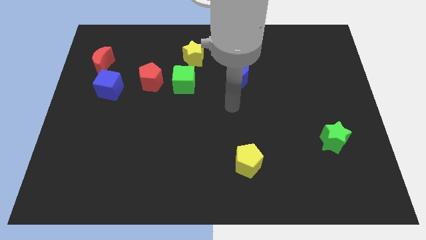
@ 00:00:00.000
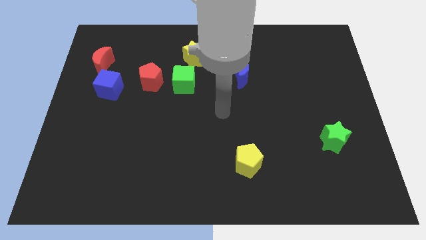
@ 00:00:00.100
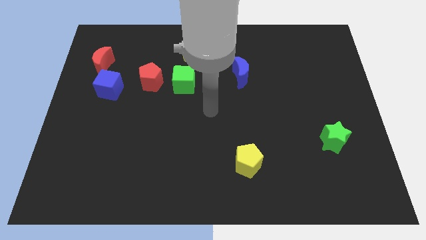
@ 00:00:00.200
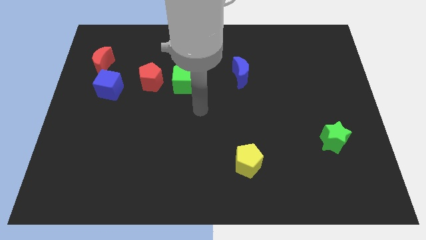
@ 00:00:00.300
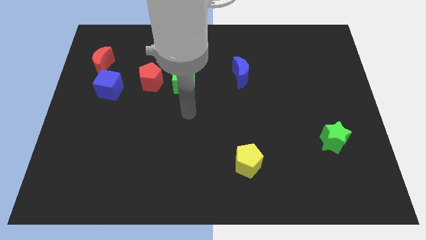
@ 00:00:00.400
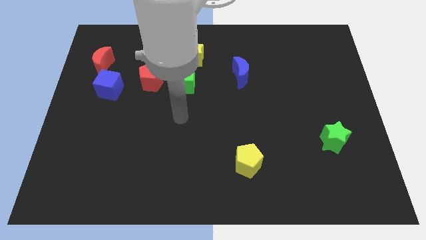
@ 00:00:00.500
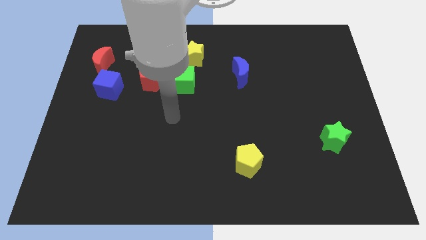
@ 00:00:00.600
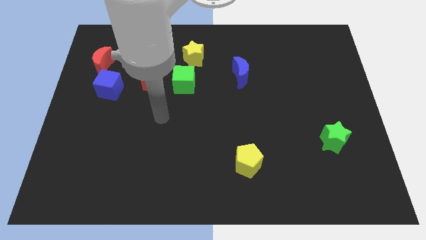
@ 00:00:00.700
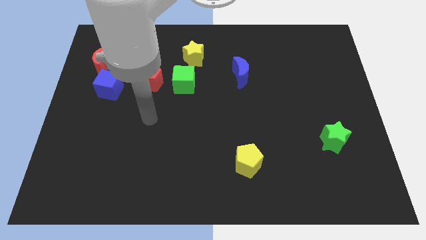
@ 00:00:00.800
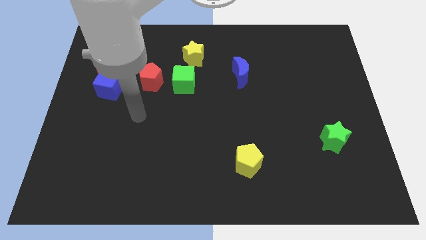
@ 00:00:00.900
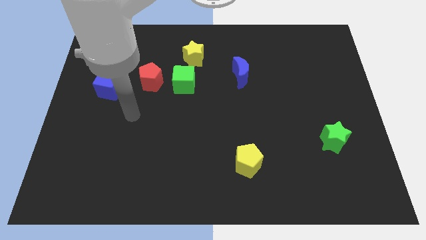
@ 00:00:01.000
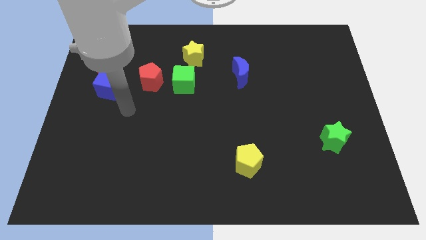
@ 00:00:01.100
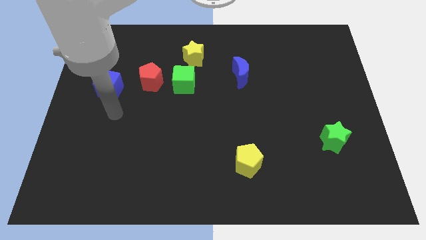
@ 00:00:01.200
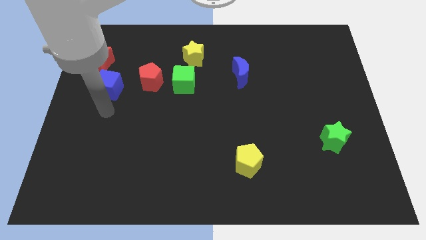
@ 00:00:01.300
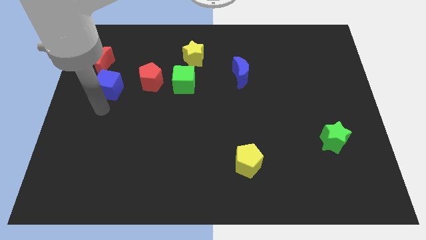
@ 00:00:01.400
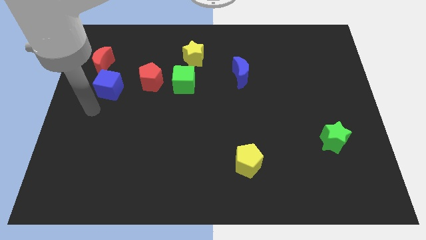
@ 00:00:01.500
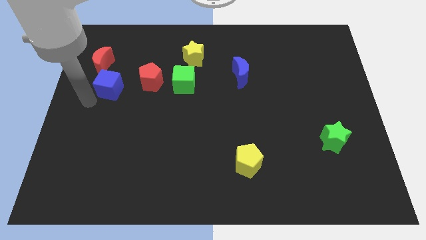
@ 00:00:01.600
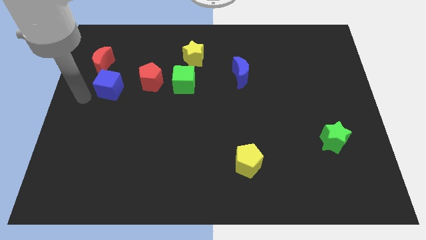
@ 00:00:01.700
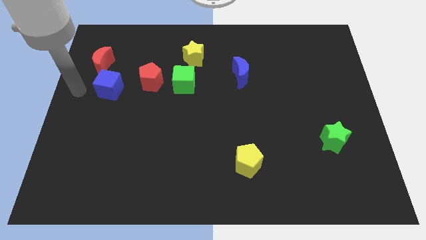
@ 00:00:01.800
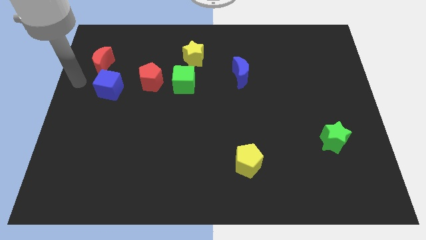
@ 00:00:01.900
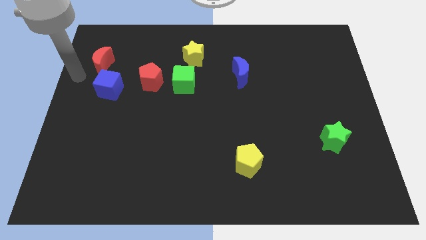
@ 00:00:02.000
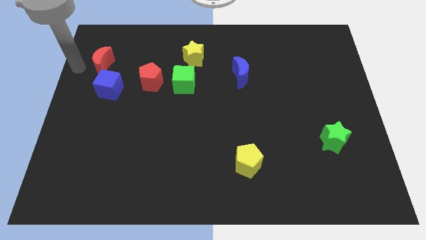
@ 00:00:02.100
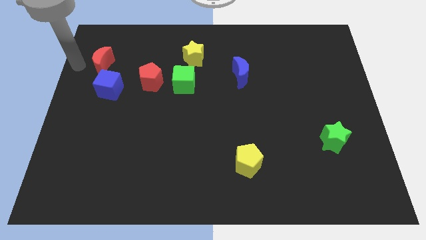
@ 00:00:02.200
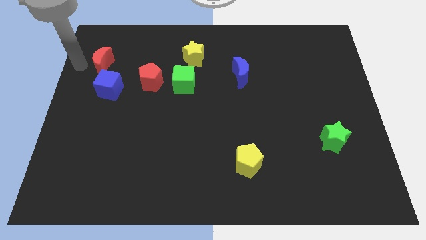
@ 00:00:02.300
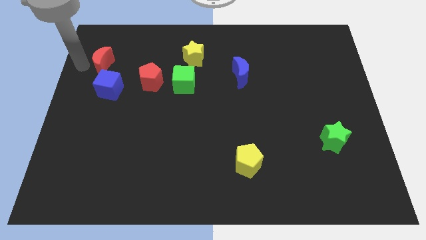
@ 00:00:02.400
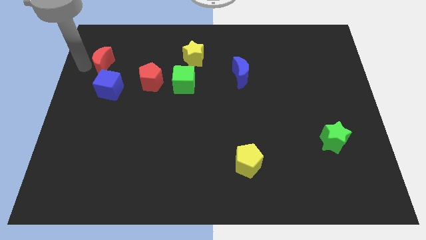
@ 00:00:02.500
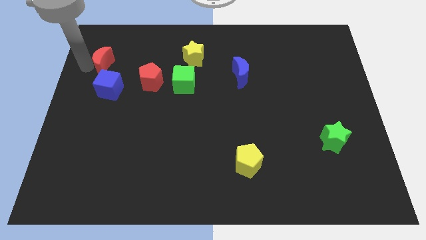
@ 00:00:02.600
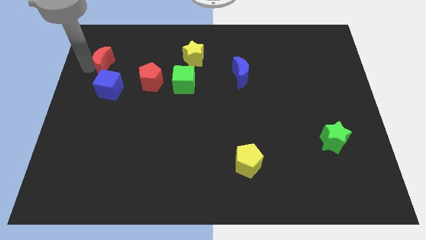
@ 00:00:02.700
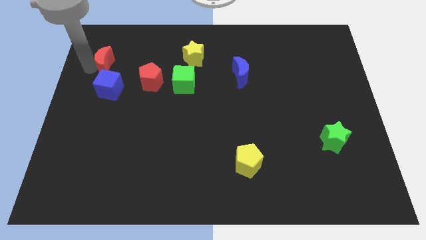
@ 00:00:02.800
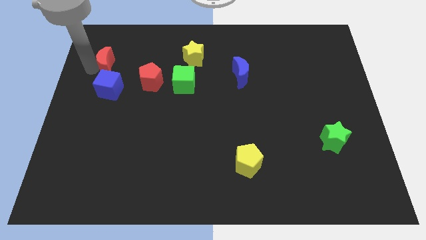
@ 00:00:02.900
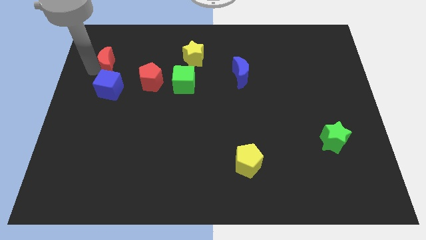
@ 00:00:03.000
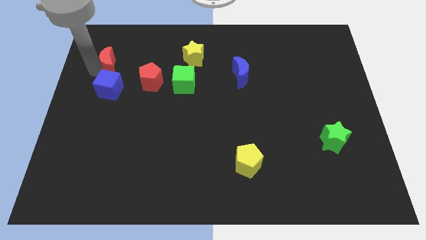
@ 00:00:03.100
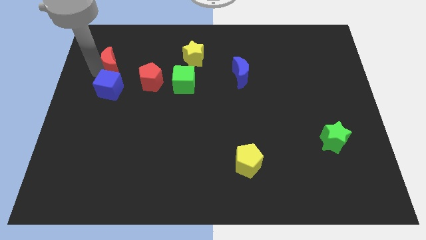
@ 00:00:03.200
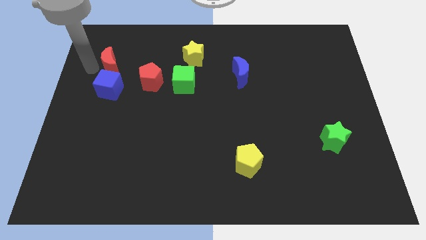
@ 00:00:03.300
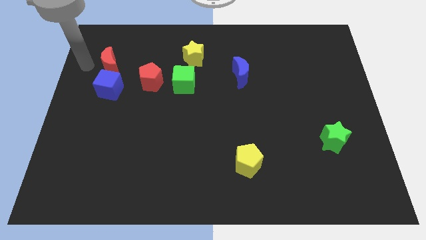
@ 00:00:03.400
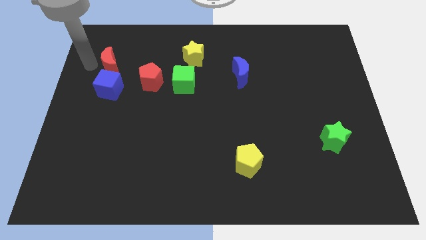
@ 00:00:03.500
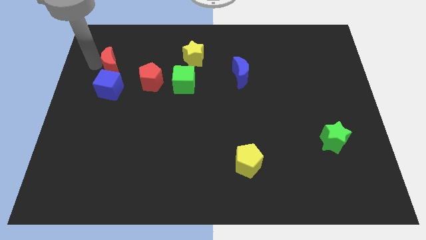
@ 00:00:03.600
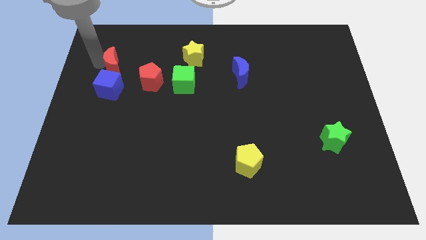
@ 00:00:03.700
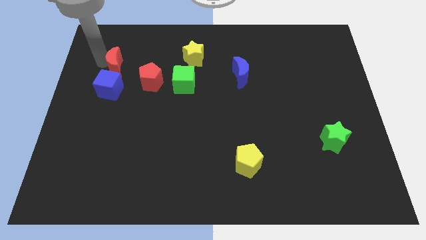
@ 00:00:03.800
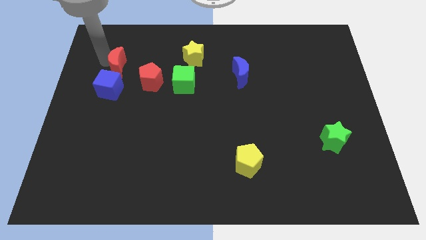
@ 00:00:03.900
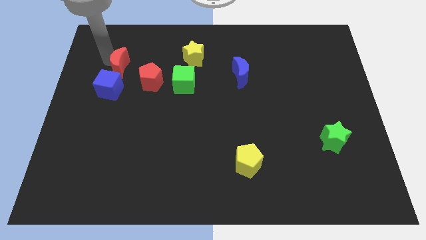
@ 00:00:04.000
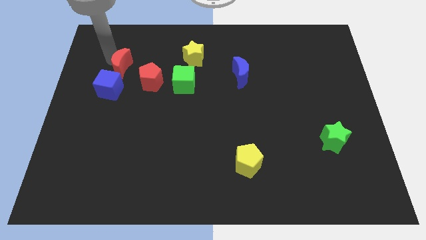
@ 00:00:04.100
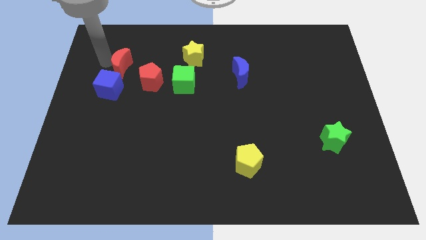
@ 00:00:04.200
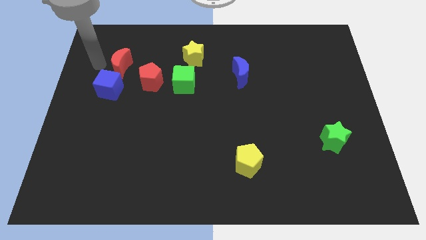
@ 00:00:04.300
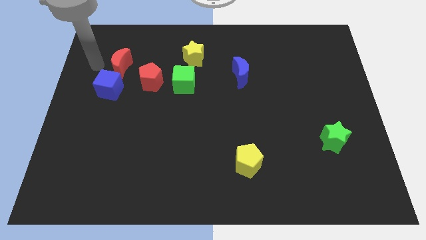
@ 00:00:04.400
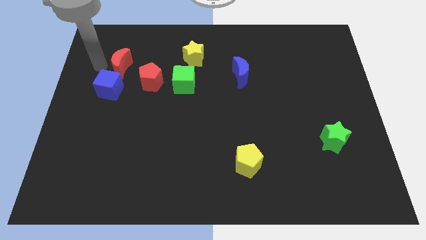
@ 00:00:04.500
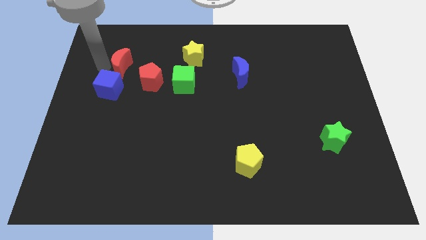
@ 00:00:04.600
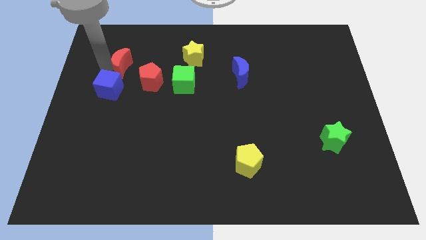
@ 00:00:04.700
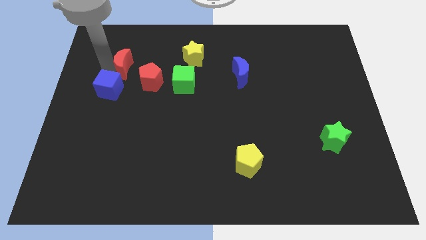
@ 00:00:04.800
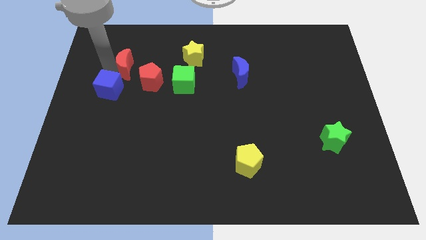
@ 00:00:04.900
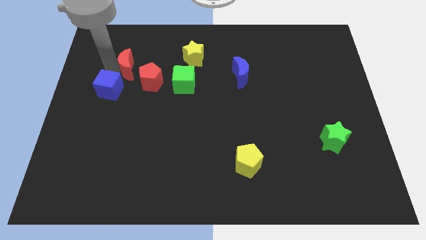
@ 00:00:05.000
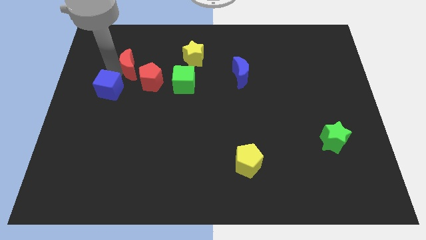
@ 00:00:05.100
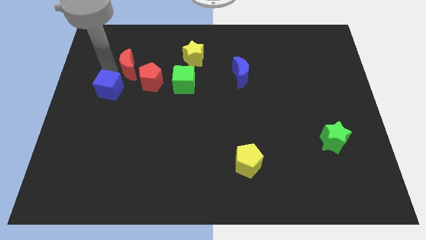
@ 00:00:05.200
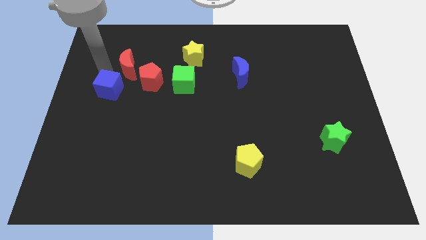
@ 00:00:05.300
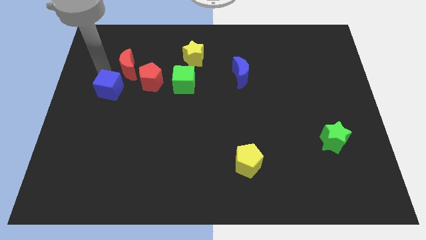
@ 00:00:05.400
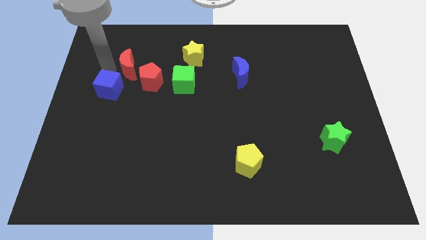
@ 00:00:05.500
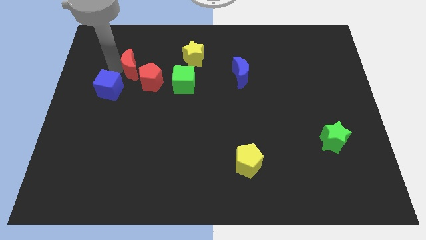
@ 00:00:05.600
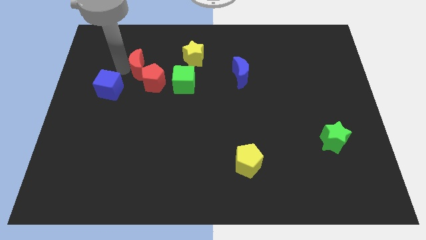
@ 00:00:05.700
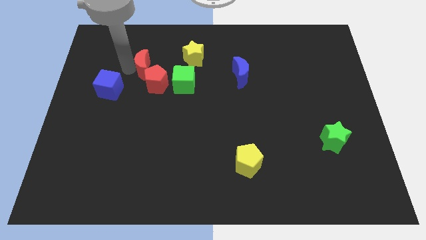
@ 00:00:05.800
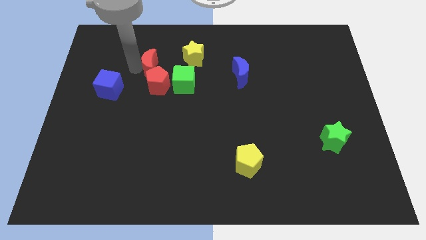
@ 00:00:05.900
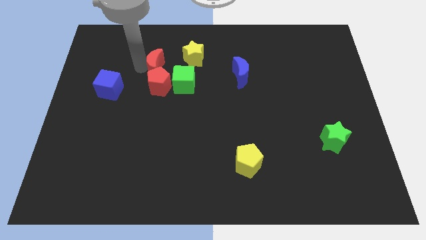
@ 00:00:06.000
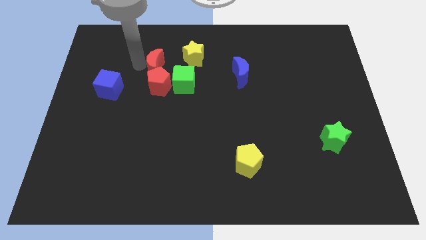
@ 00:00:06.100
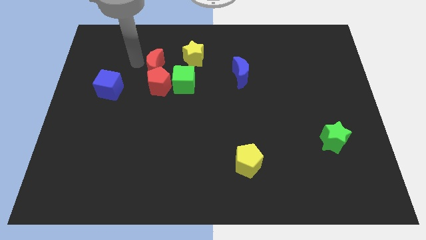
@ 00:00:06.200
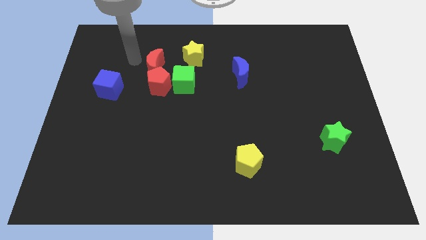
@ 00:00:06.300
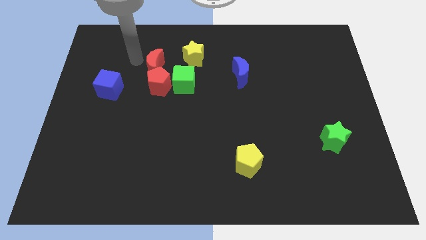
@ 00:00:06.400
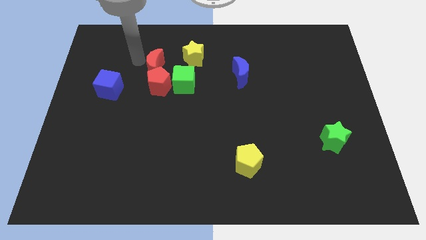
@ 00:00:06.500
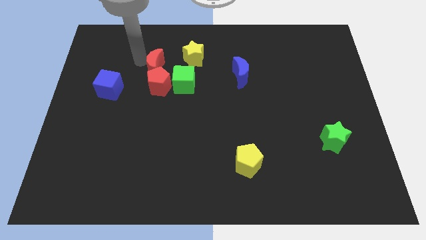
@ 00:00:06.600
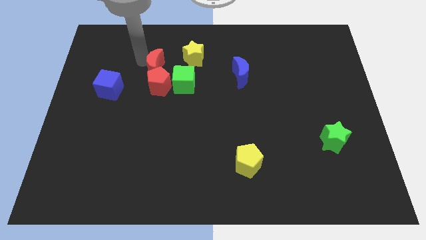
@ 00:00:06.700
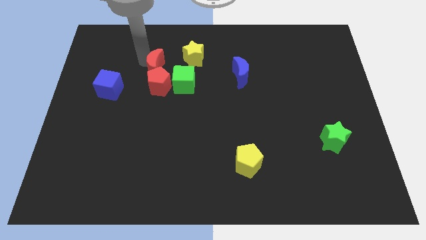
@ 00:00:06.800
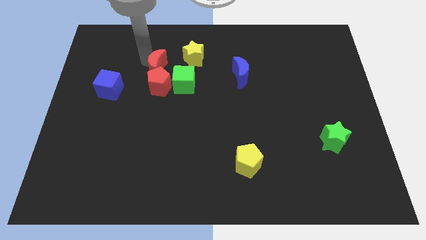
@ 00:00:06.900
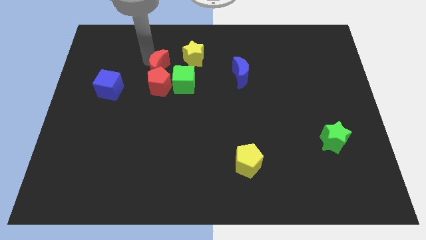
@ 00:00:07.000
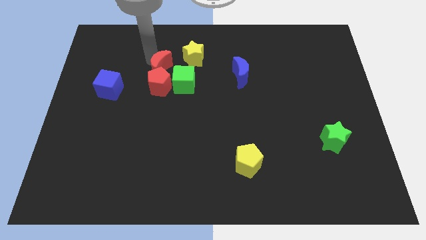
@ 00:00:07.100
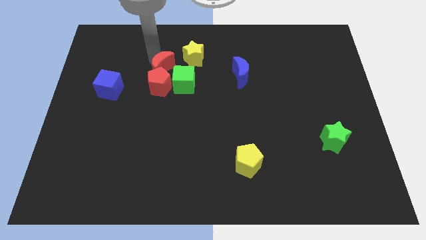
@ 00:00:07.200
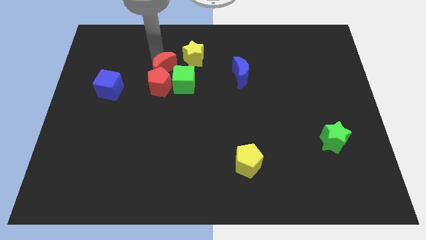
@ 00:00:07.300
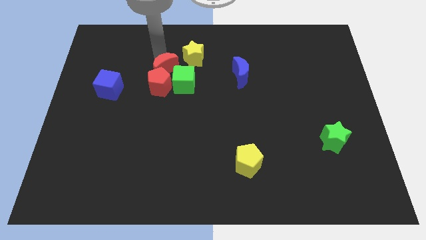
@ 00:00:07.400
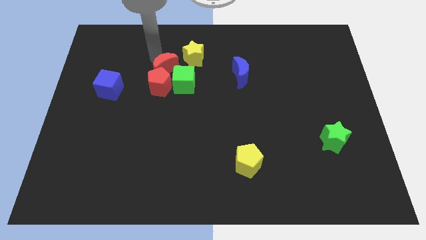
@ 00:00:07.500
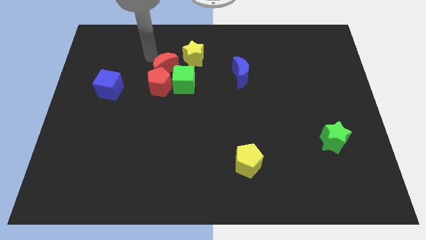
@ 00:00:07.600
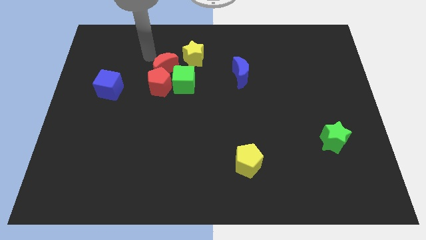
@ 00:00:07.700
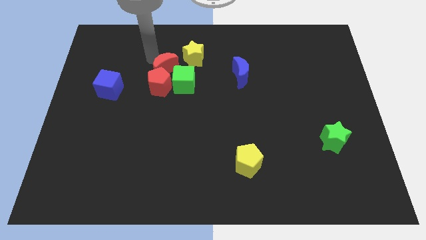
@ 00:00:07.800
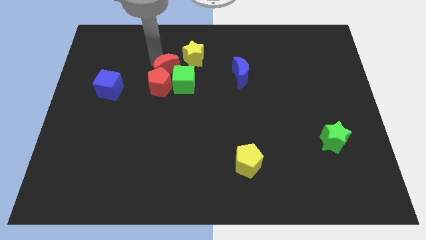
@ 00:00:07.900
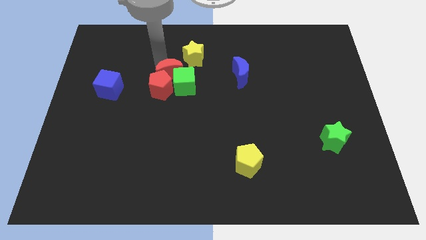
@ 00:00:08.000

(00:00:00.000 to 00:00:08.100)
put the red moon towards the green cube
